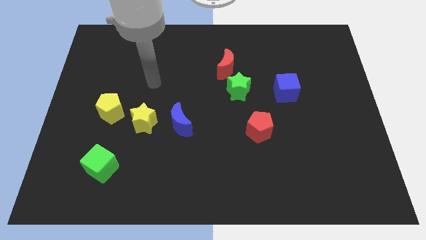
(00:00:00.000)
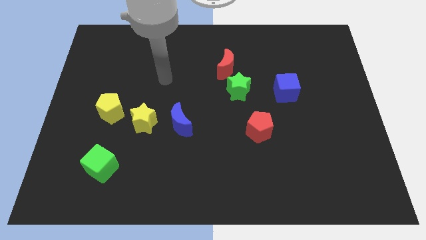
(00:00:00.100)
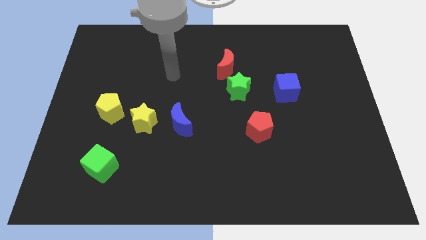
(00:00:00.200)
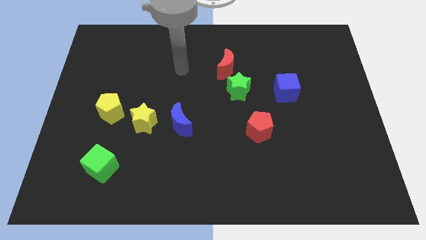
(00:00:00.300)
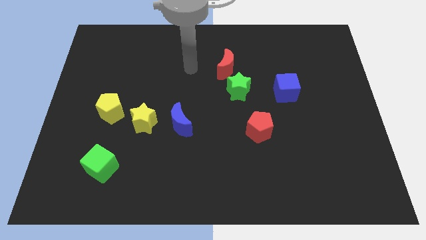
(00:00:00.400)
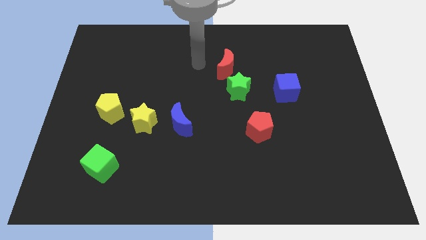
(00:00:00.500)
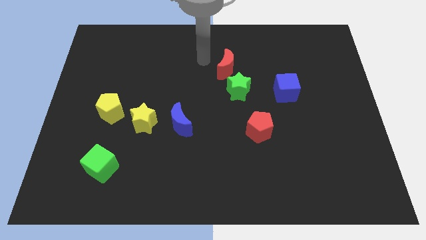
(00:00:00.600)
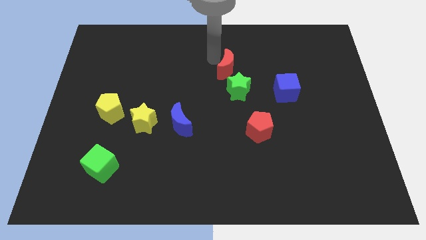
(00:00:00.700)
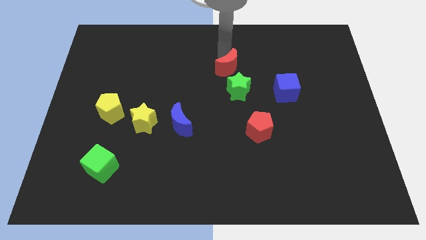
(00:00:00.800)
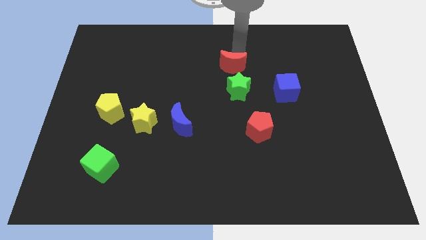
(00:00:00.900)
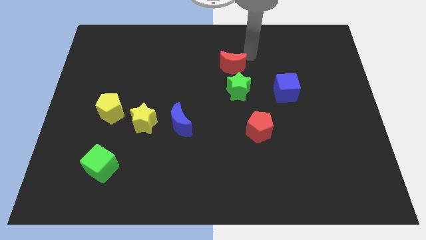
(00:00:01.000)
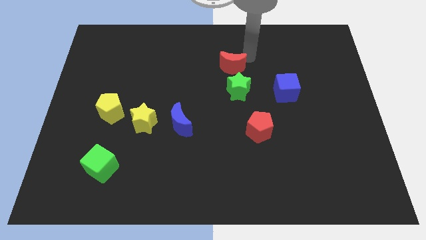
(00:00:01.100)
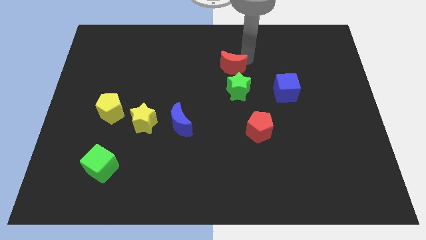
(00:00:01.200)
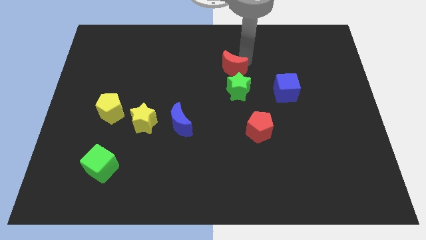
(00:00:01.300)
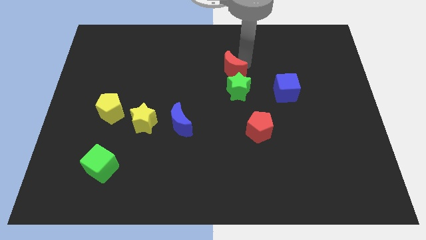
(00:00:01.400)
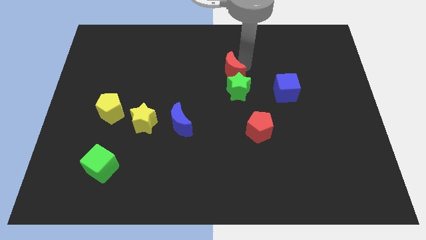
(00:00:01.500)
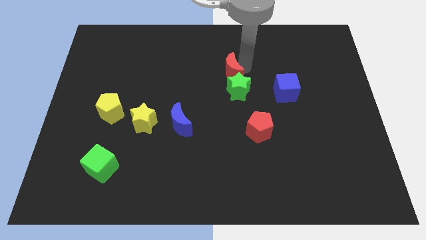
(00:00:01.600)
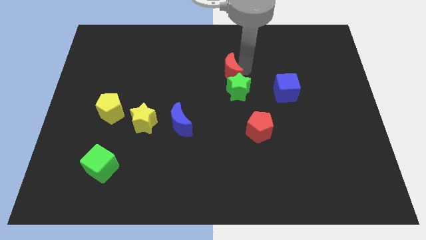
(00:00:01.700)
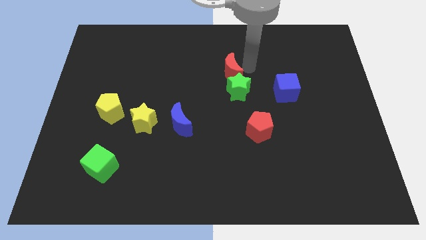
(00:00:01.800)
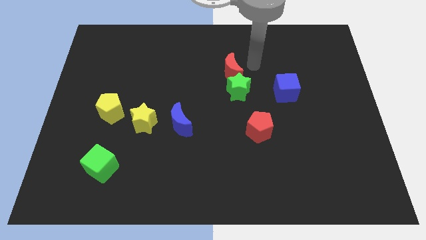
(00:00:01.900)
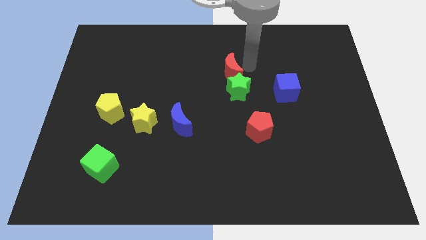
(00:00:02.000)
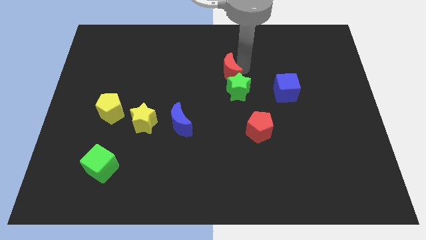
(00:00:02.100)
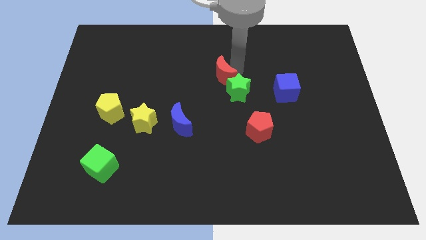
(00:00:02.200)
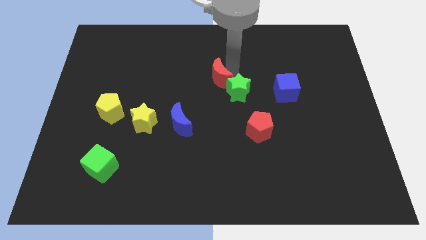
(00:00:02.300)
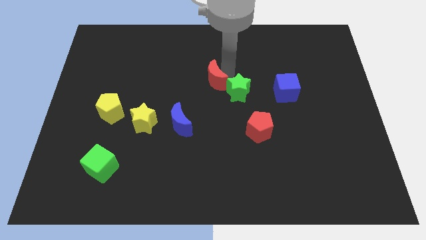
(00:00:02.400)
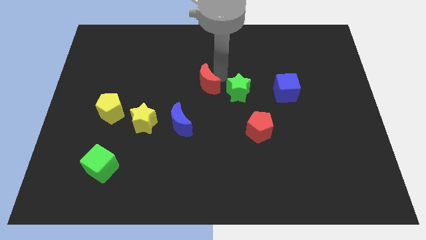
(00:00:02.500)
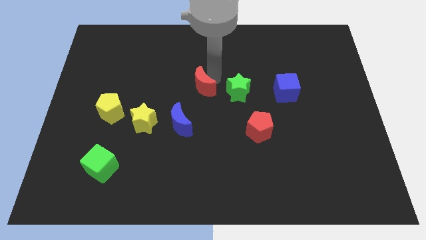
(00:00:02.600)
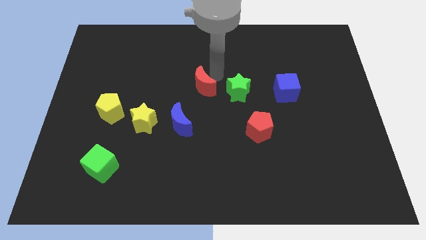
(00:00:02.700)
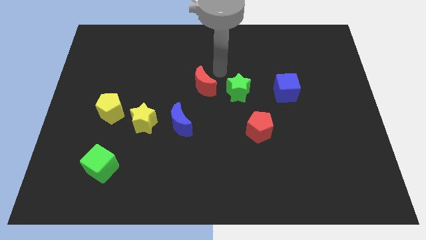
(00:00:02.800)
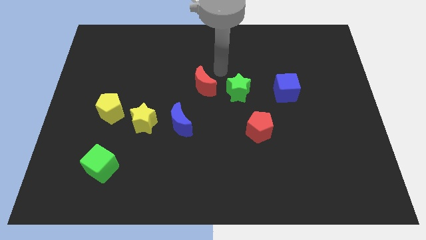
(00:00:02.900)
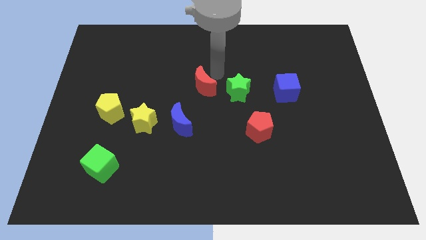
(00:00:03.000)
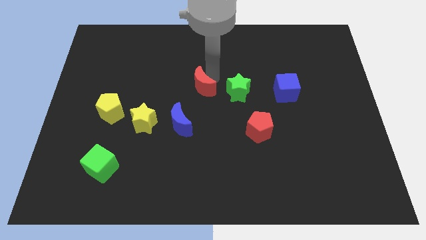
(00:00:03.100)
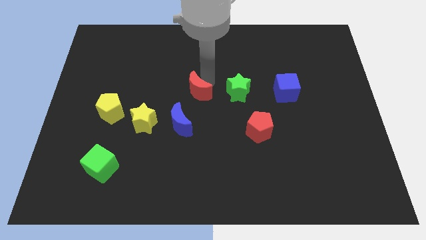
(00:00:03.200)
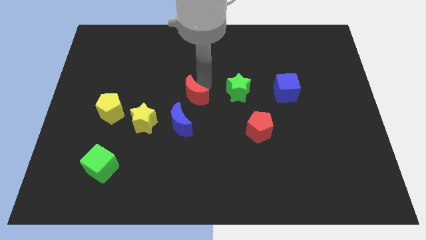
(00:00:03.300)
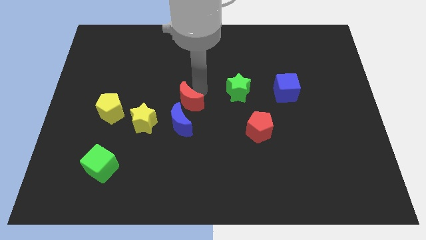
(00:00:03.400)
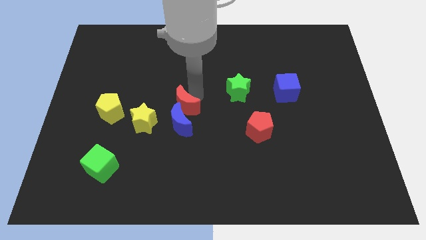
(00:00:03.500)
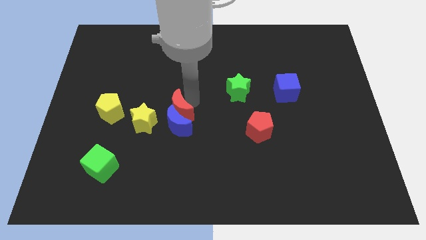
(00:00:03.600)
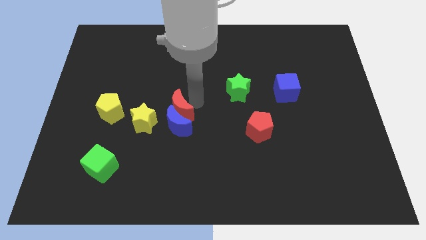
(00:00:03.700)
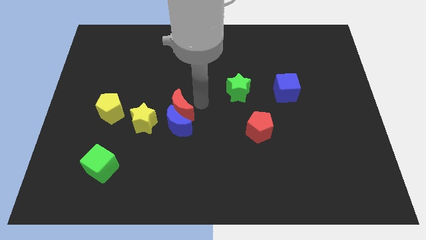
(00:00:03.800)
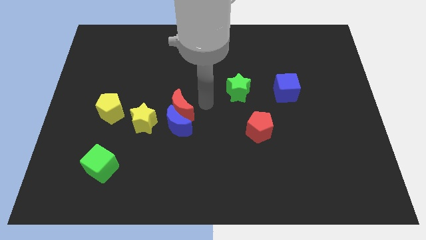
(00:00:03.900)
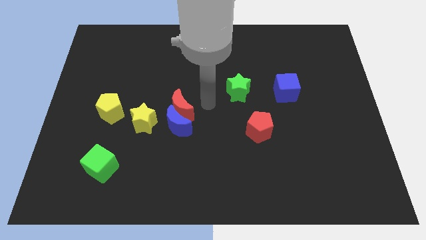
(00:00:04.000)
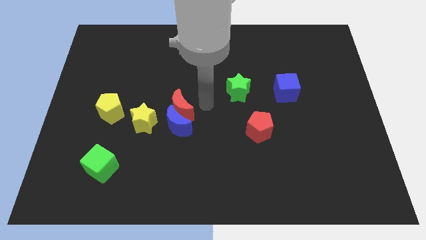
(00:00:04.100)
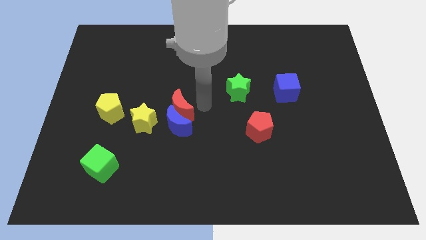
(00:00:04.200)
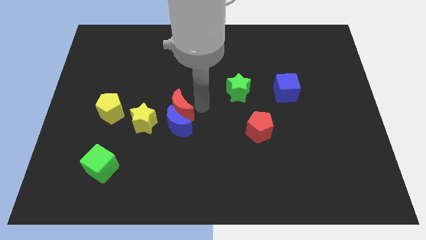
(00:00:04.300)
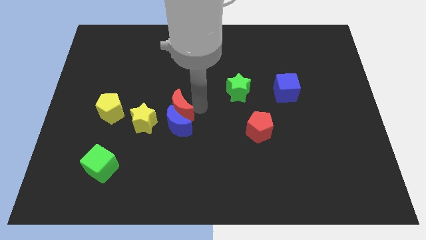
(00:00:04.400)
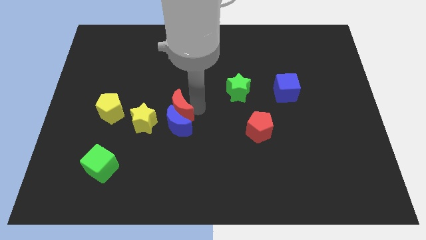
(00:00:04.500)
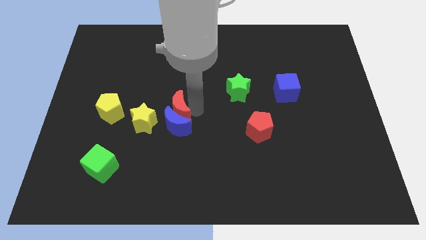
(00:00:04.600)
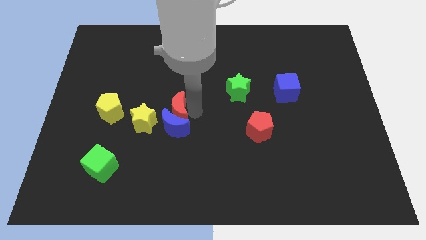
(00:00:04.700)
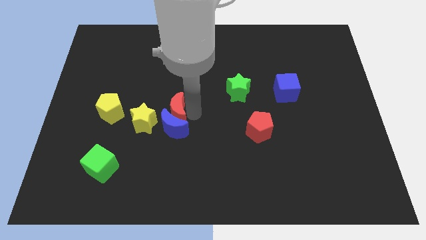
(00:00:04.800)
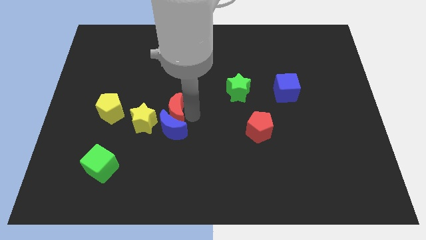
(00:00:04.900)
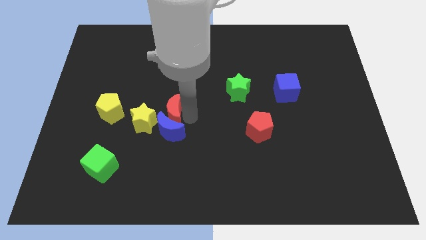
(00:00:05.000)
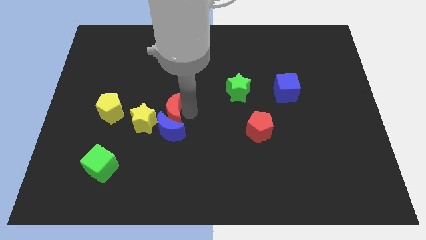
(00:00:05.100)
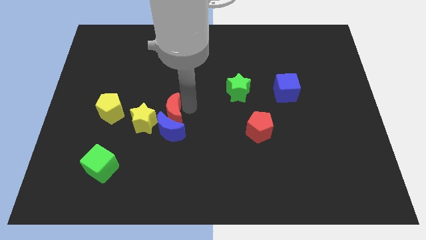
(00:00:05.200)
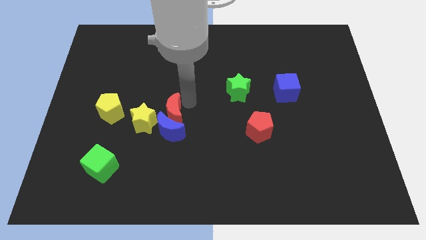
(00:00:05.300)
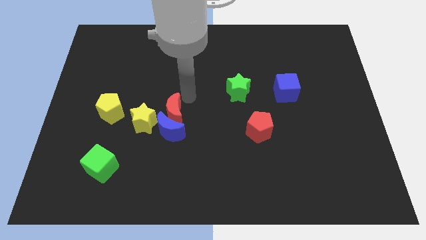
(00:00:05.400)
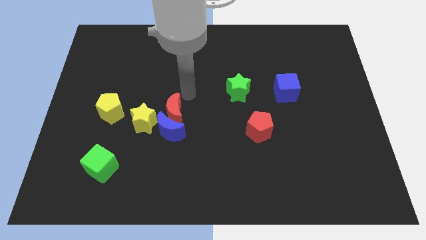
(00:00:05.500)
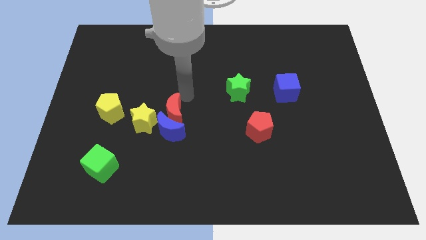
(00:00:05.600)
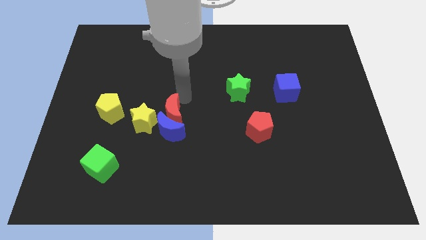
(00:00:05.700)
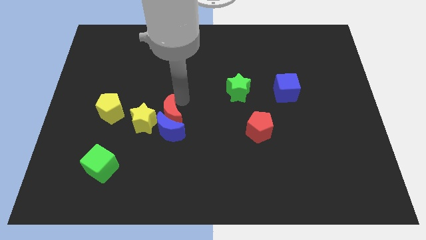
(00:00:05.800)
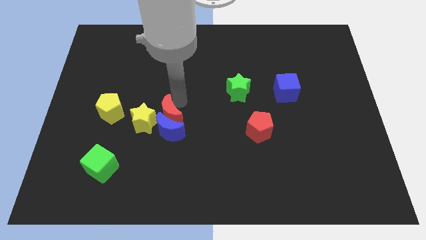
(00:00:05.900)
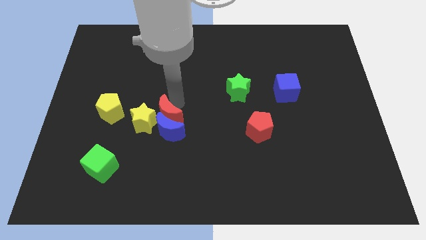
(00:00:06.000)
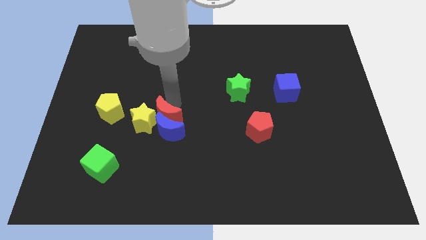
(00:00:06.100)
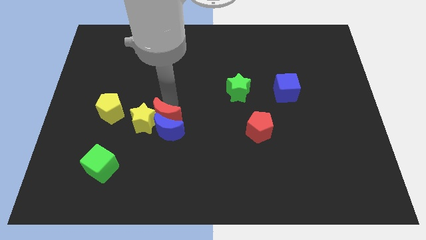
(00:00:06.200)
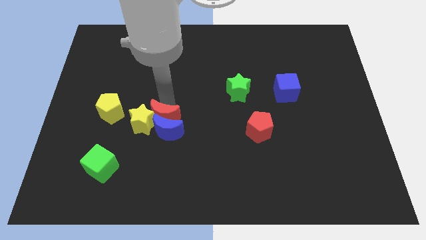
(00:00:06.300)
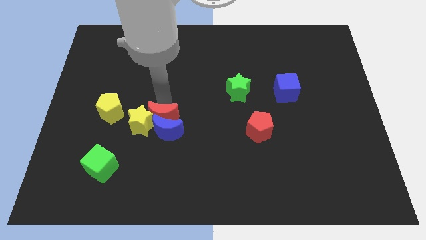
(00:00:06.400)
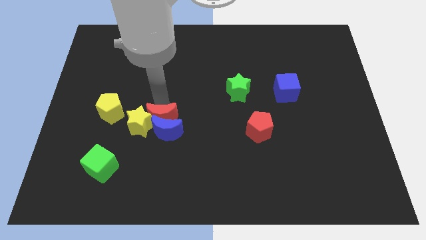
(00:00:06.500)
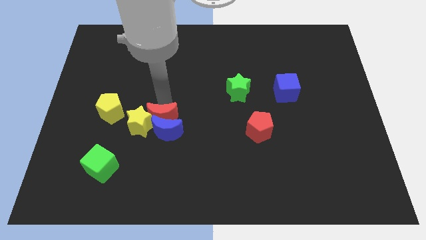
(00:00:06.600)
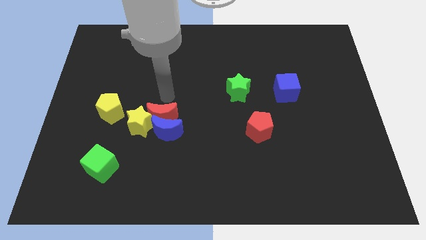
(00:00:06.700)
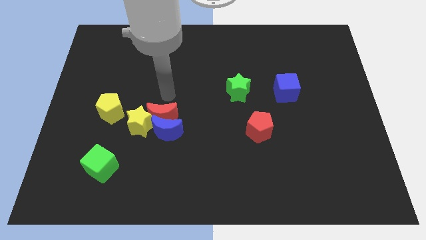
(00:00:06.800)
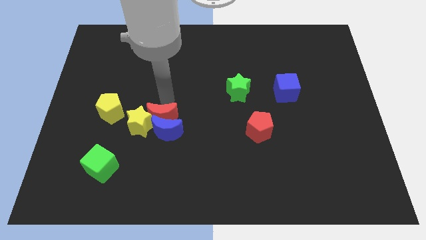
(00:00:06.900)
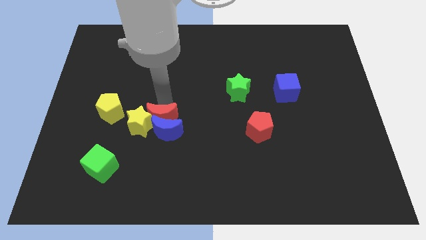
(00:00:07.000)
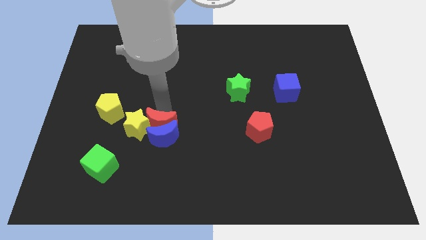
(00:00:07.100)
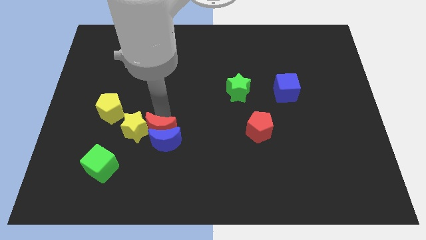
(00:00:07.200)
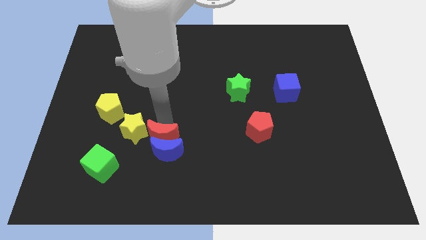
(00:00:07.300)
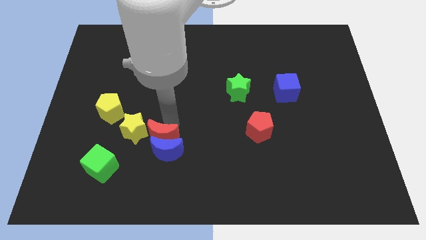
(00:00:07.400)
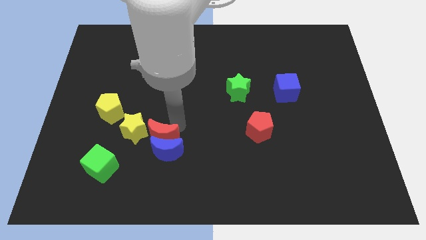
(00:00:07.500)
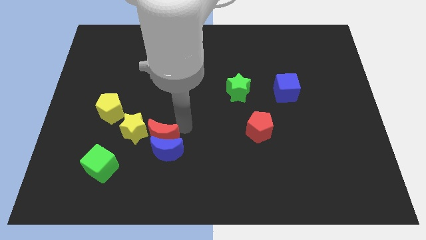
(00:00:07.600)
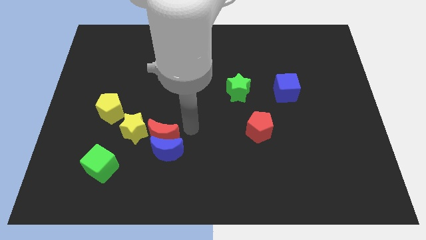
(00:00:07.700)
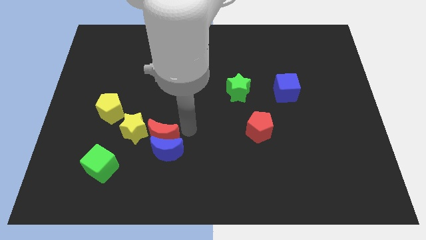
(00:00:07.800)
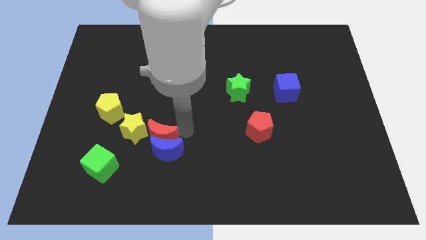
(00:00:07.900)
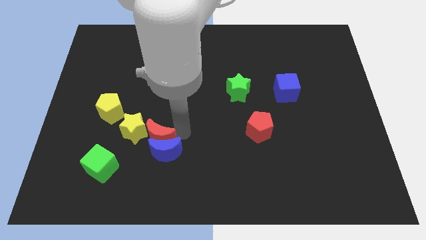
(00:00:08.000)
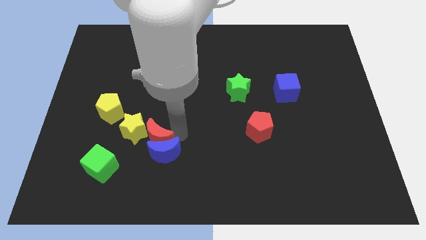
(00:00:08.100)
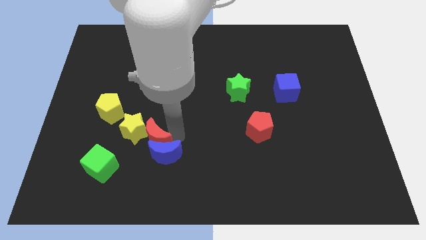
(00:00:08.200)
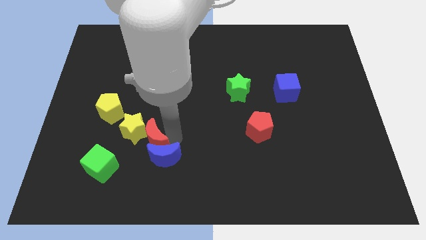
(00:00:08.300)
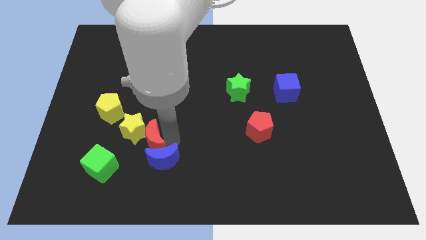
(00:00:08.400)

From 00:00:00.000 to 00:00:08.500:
slide the red moon to the top right of the green cube
